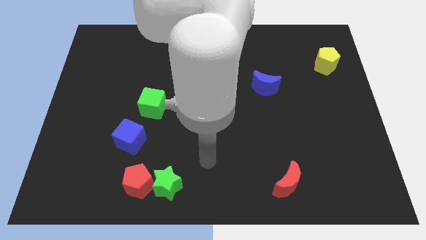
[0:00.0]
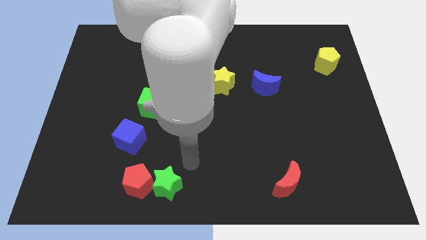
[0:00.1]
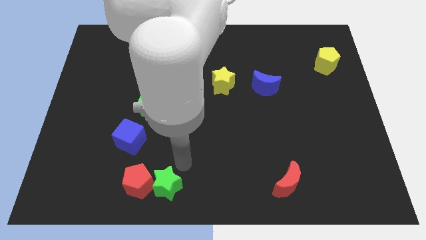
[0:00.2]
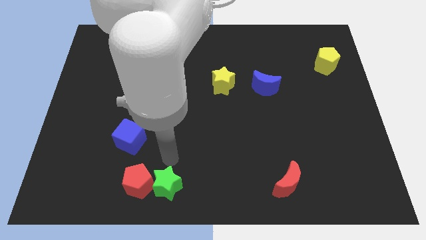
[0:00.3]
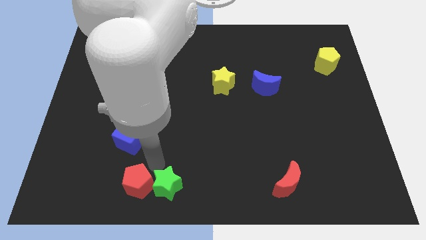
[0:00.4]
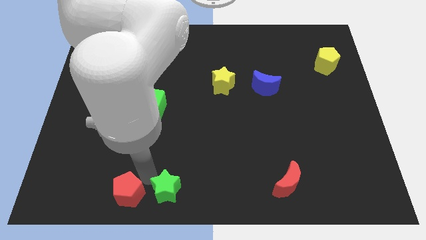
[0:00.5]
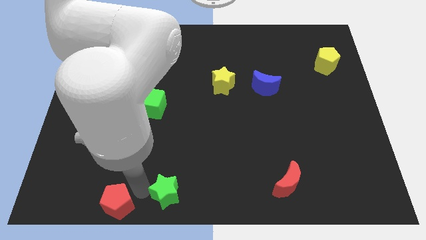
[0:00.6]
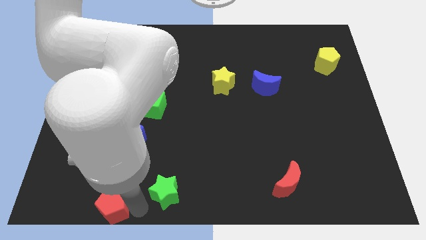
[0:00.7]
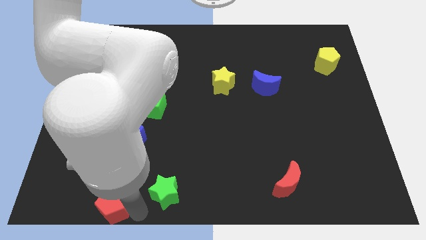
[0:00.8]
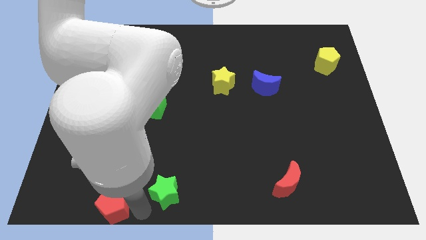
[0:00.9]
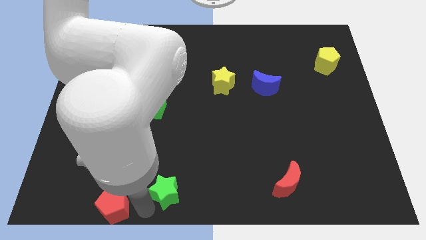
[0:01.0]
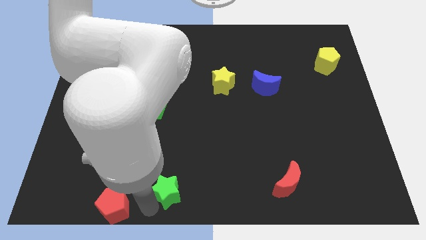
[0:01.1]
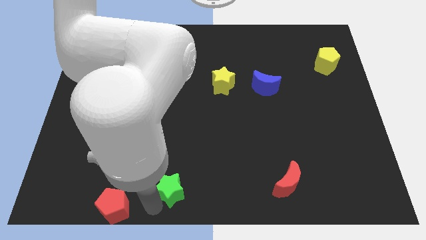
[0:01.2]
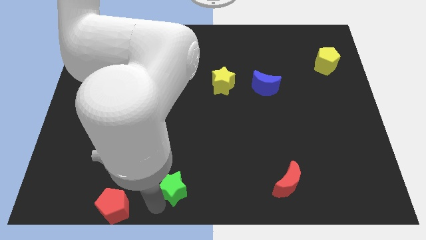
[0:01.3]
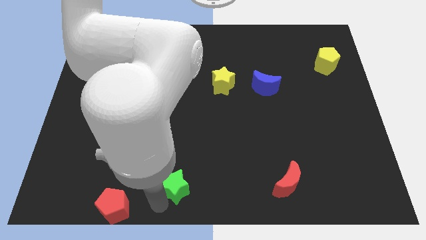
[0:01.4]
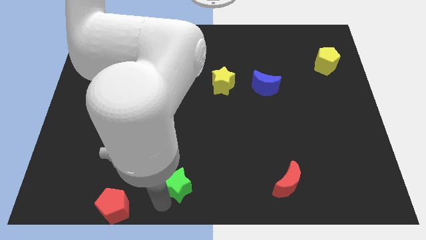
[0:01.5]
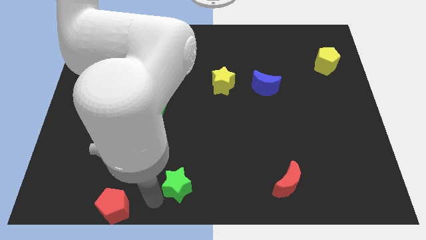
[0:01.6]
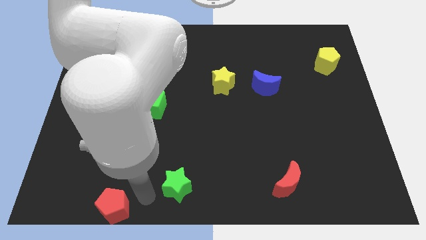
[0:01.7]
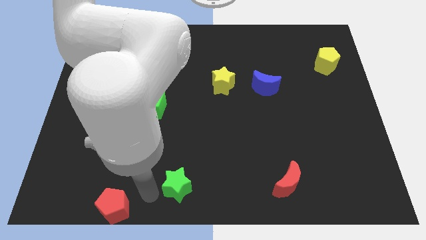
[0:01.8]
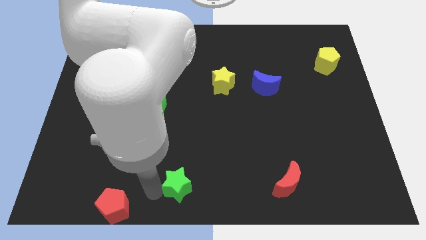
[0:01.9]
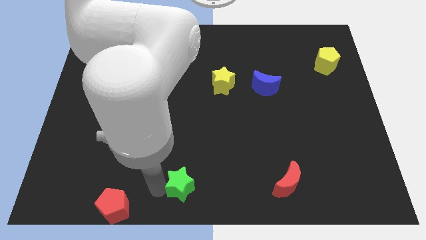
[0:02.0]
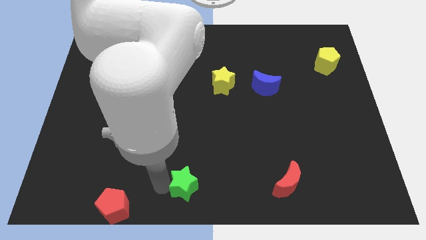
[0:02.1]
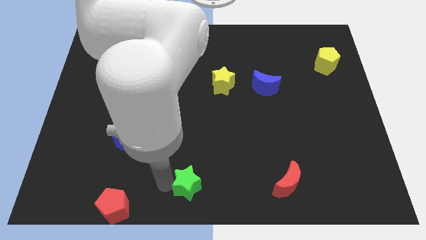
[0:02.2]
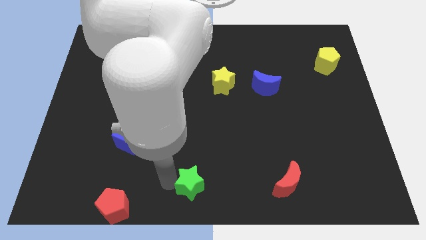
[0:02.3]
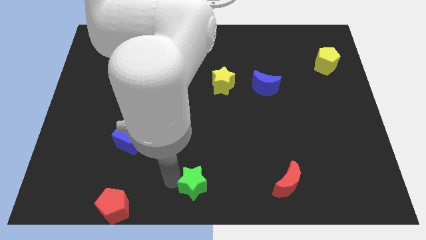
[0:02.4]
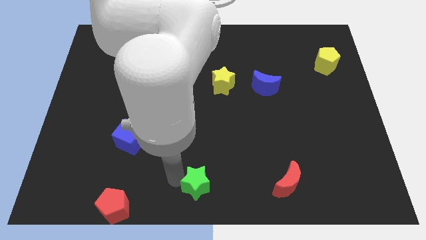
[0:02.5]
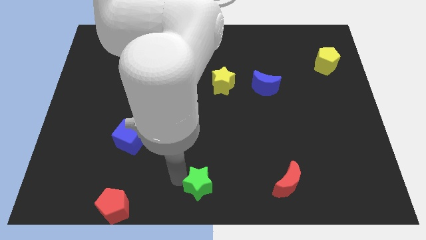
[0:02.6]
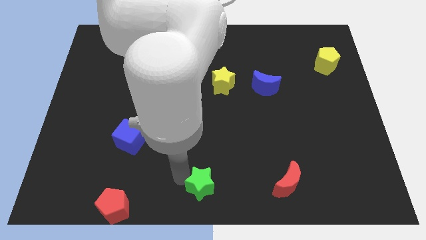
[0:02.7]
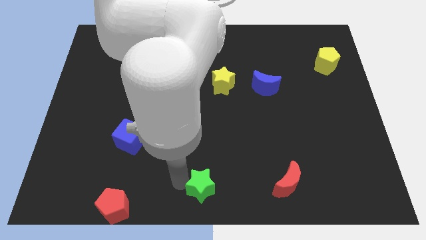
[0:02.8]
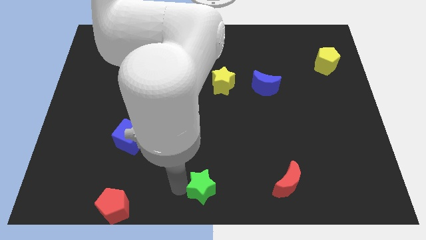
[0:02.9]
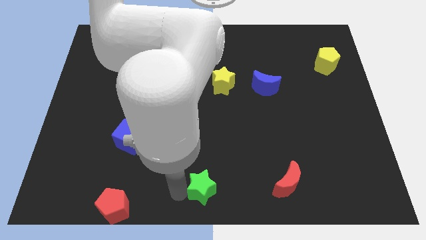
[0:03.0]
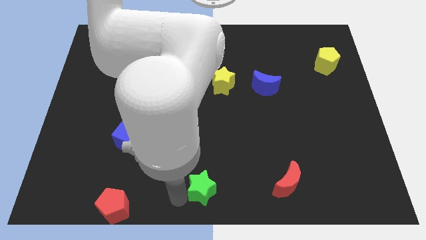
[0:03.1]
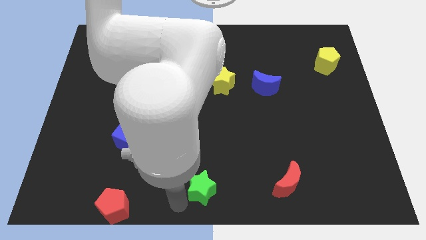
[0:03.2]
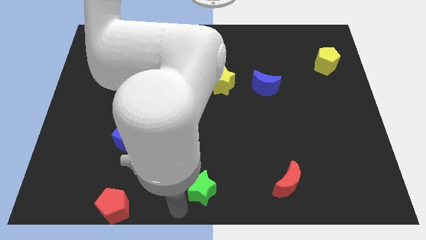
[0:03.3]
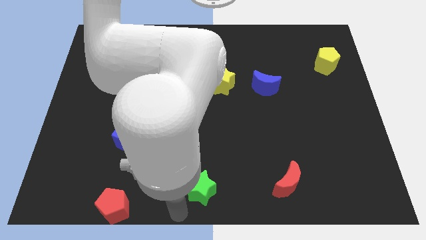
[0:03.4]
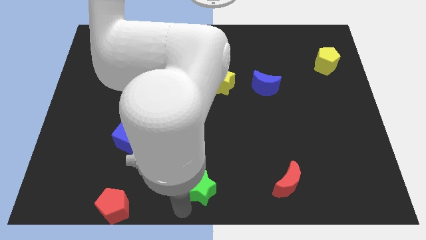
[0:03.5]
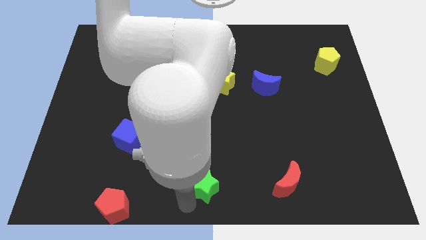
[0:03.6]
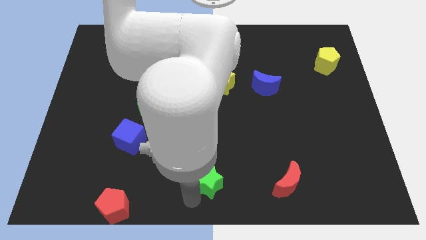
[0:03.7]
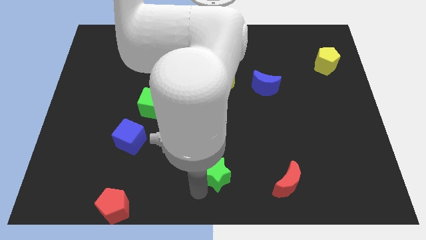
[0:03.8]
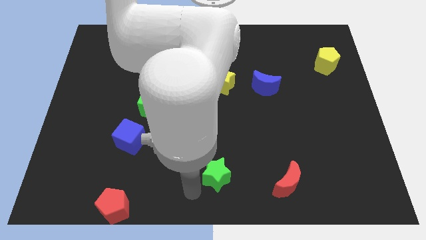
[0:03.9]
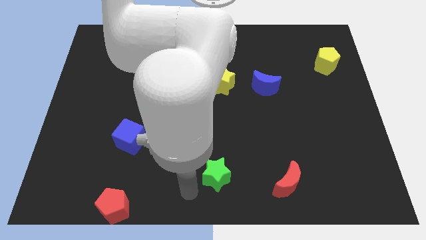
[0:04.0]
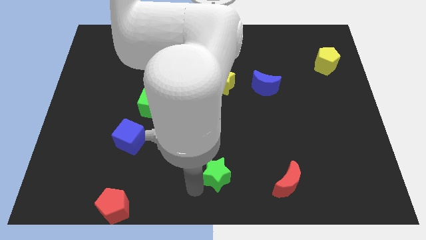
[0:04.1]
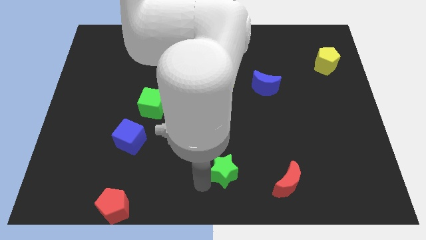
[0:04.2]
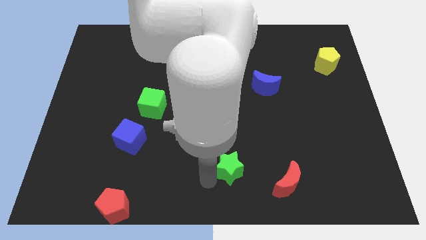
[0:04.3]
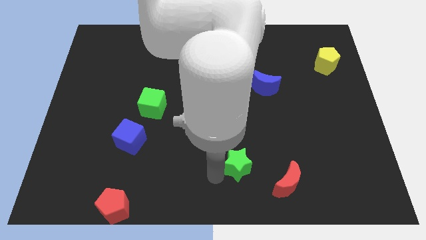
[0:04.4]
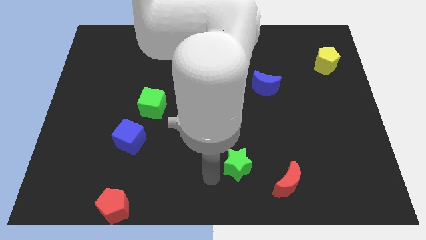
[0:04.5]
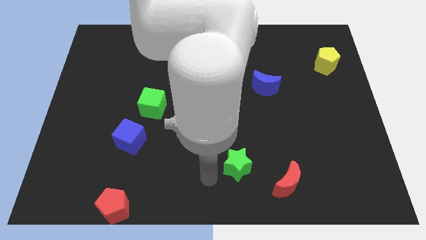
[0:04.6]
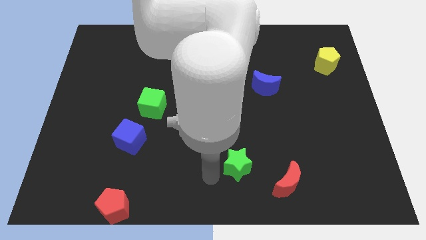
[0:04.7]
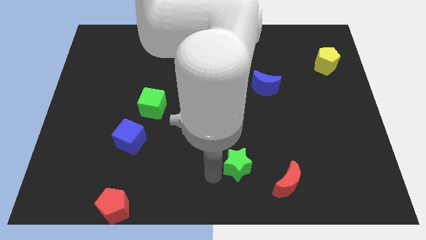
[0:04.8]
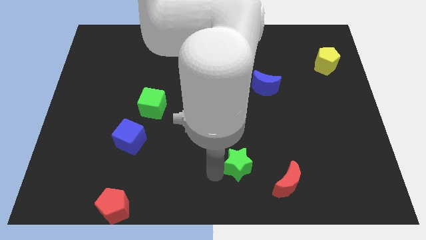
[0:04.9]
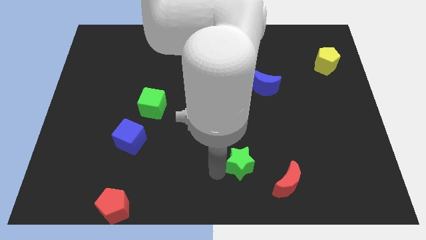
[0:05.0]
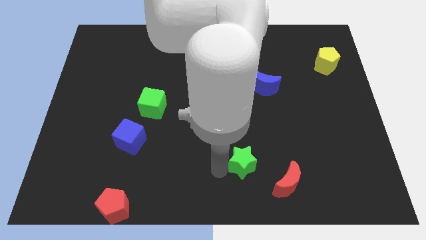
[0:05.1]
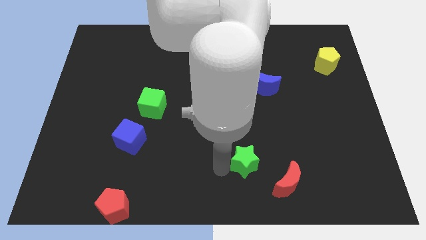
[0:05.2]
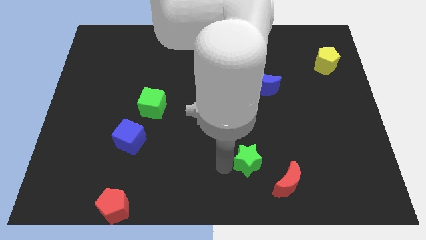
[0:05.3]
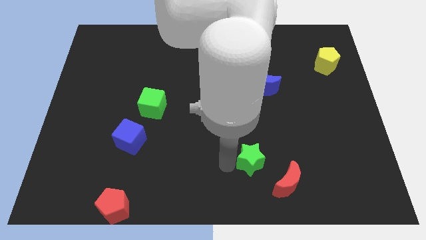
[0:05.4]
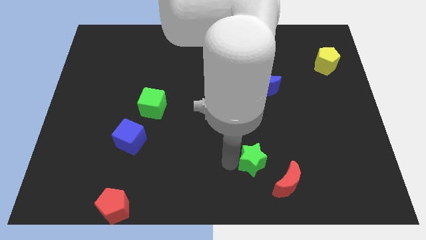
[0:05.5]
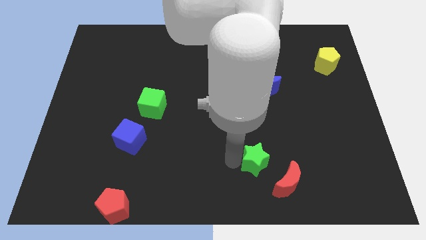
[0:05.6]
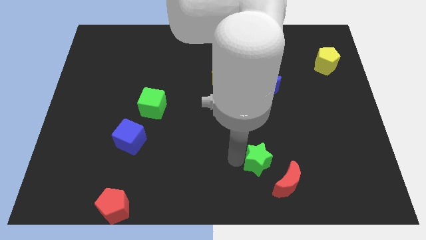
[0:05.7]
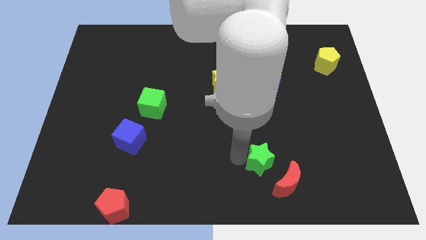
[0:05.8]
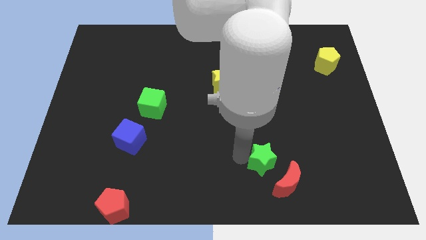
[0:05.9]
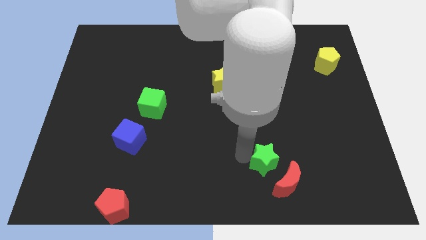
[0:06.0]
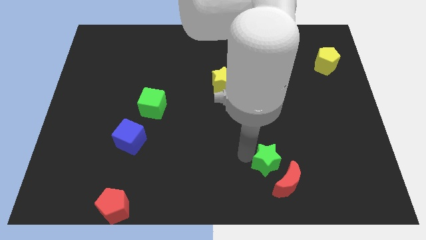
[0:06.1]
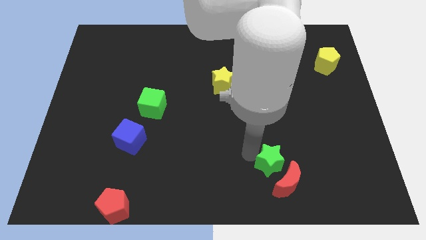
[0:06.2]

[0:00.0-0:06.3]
slide the green star right

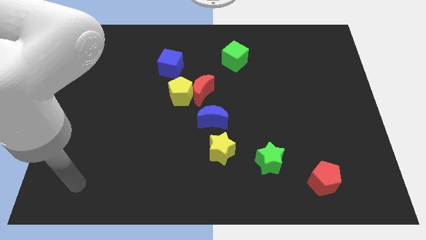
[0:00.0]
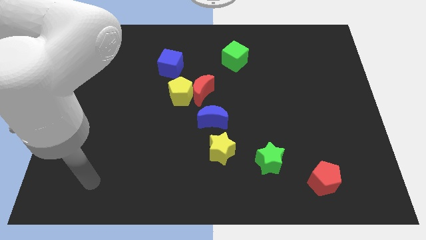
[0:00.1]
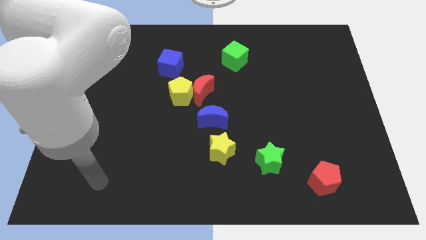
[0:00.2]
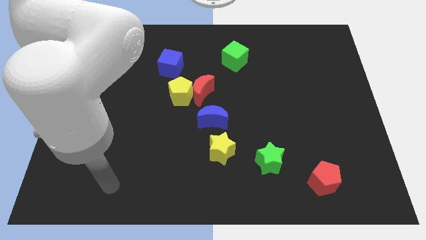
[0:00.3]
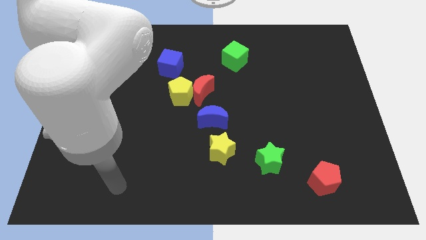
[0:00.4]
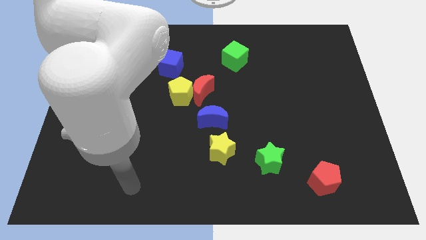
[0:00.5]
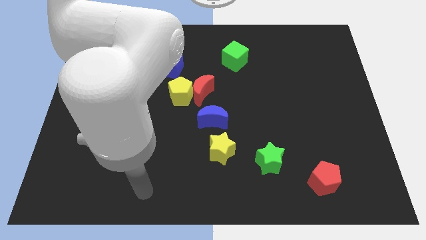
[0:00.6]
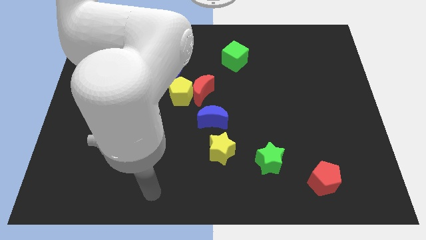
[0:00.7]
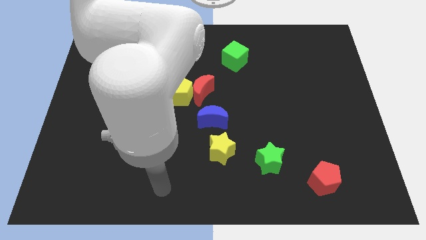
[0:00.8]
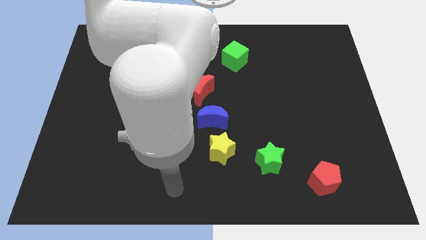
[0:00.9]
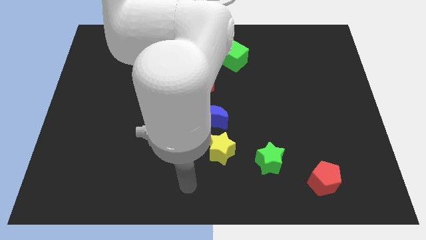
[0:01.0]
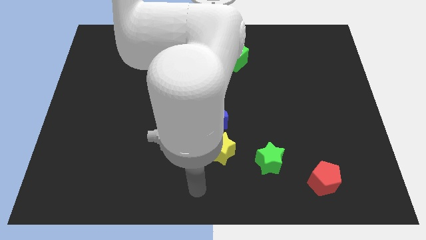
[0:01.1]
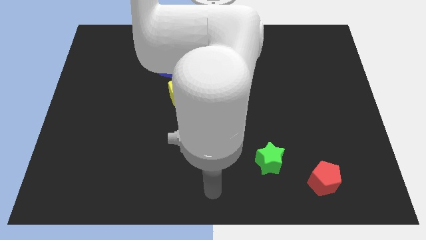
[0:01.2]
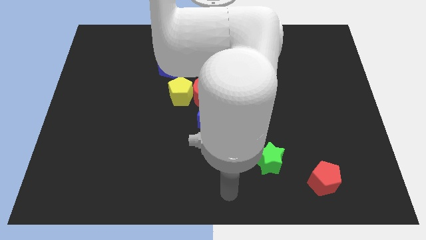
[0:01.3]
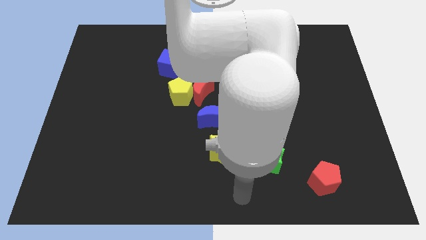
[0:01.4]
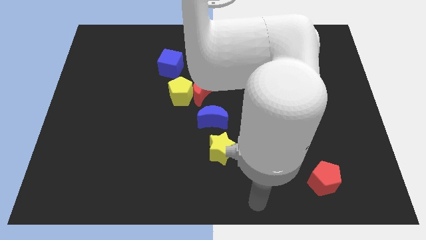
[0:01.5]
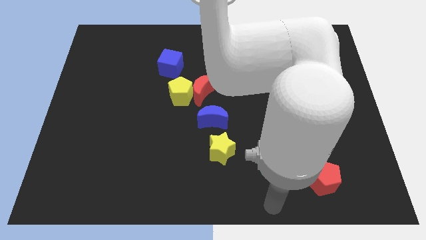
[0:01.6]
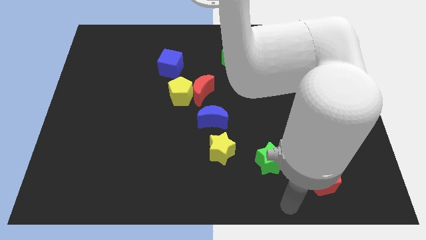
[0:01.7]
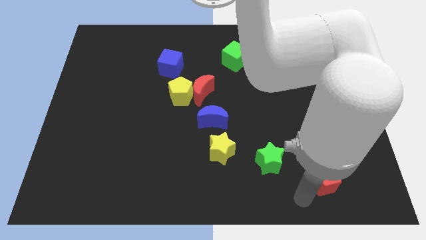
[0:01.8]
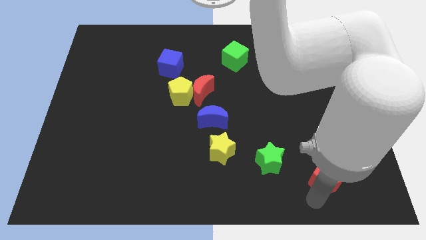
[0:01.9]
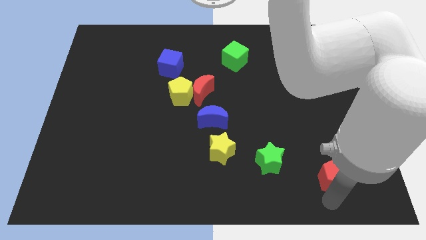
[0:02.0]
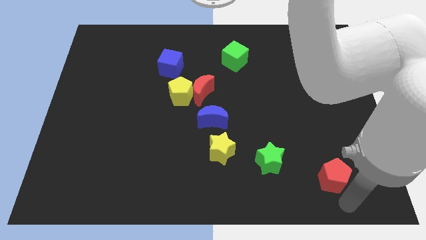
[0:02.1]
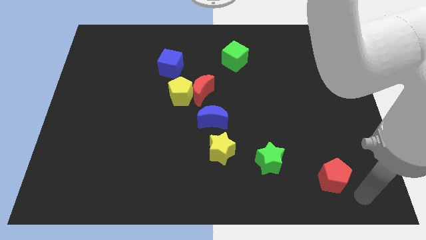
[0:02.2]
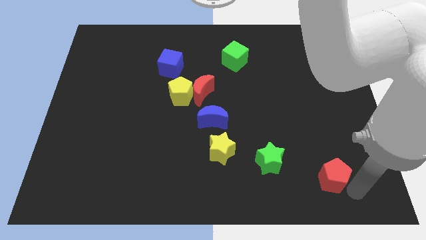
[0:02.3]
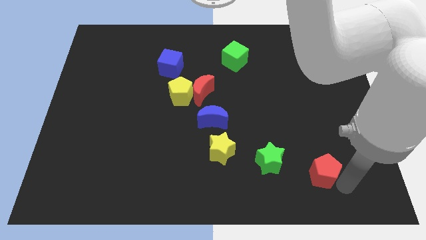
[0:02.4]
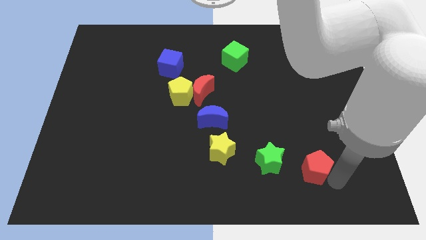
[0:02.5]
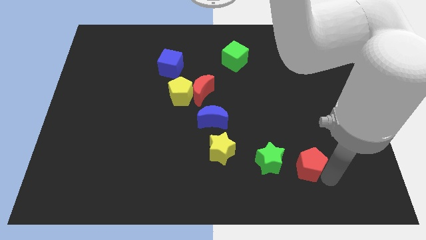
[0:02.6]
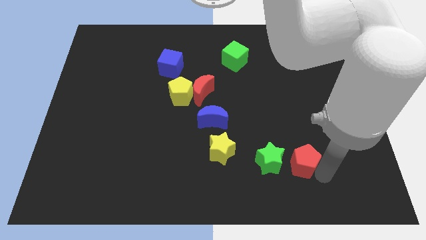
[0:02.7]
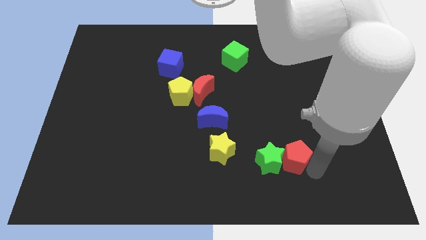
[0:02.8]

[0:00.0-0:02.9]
move the red pentagon a little bit upwards and to the left
